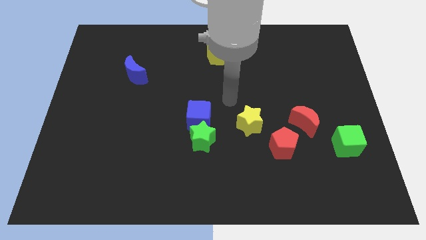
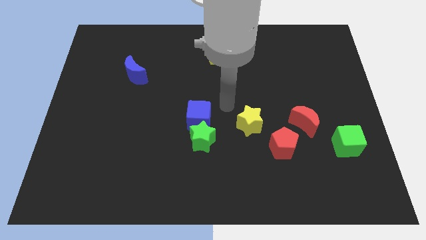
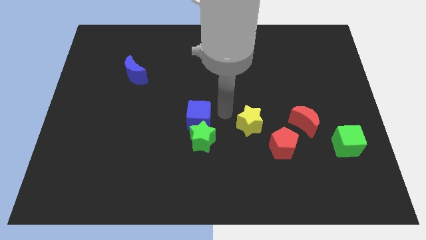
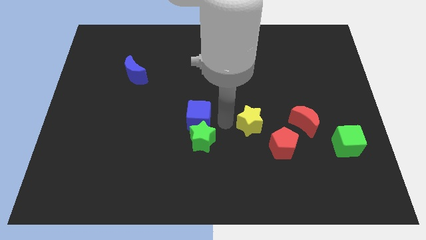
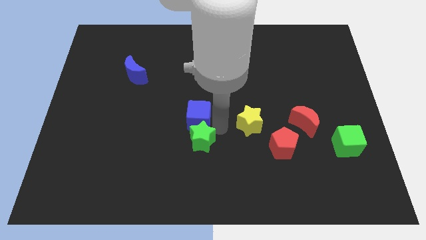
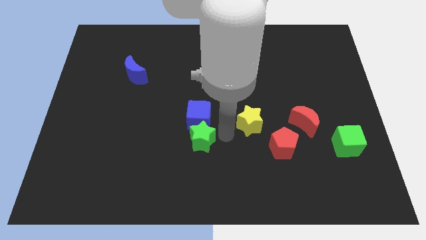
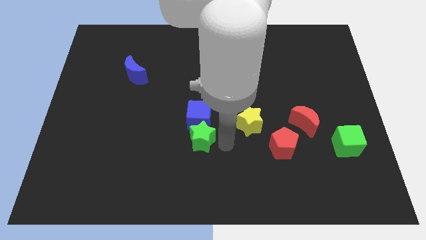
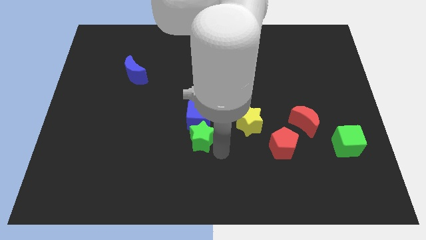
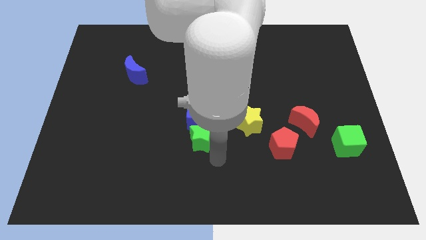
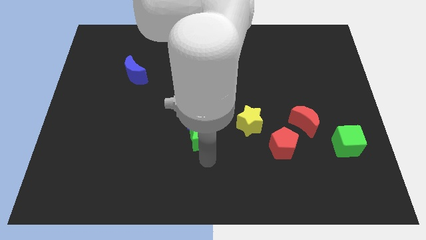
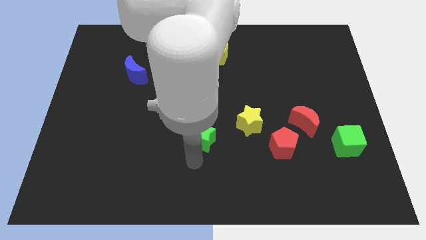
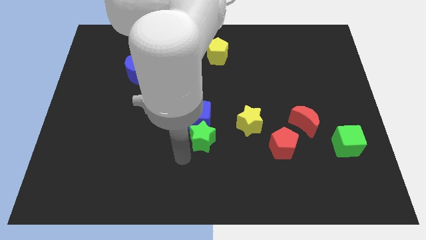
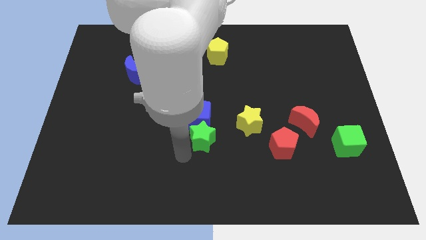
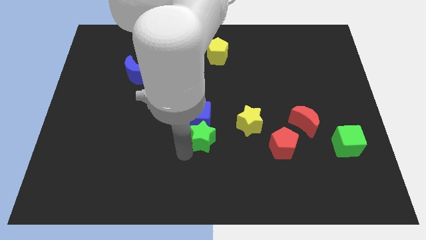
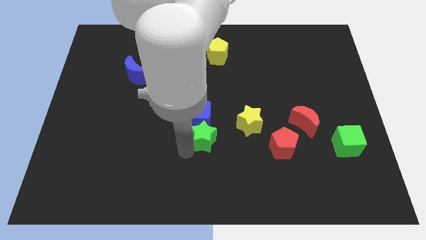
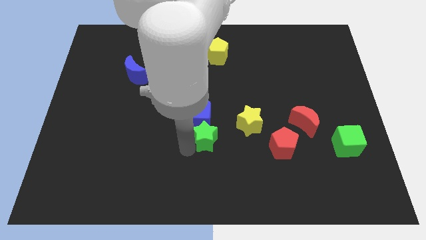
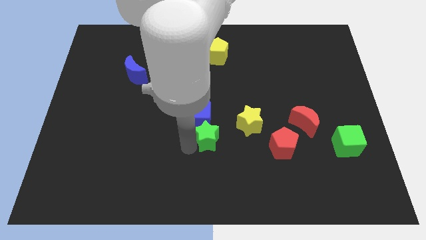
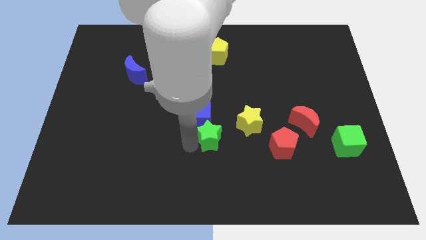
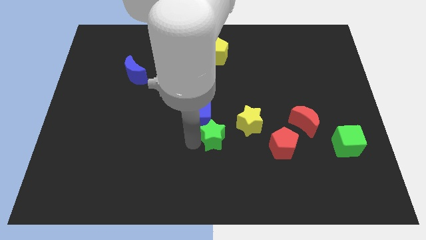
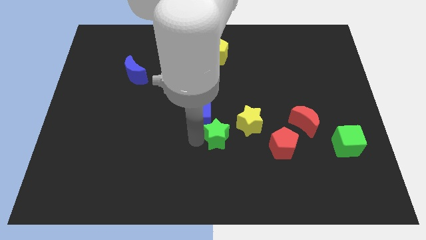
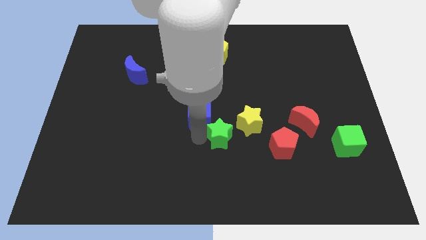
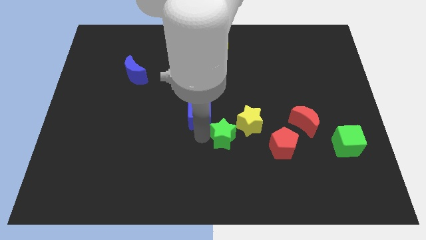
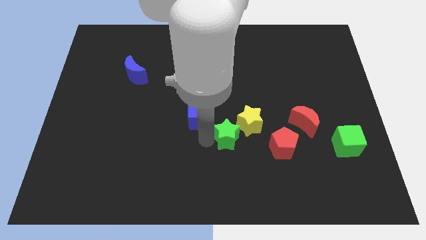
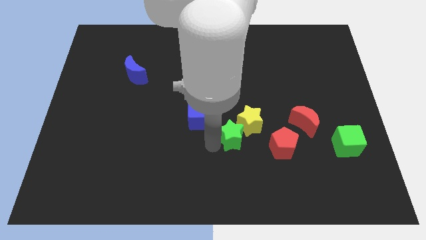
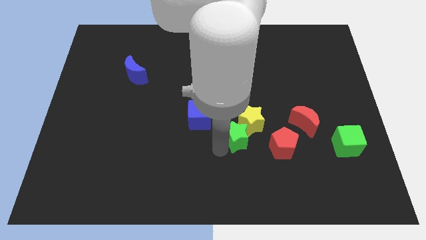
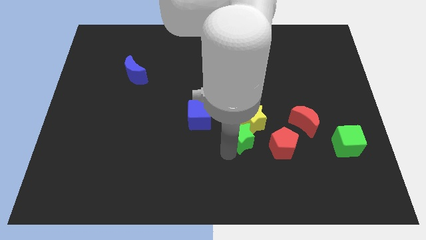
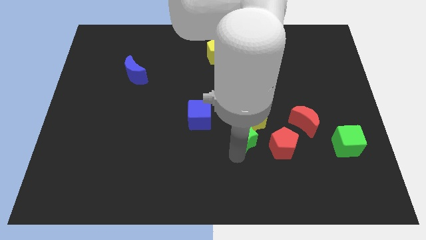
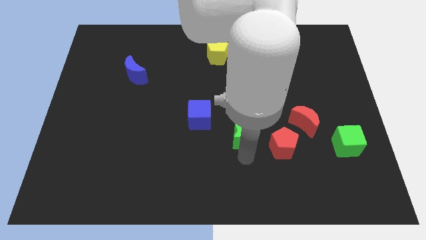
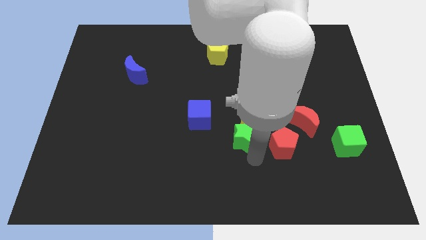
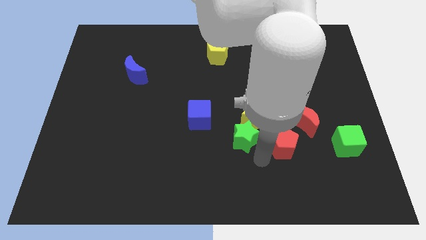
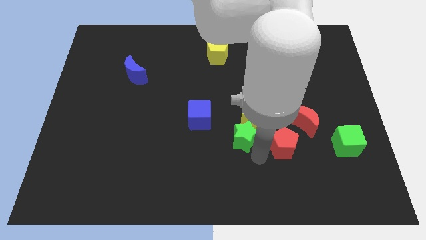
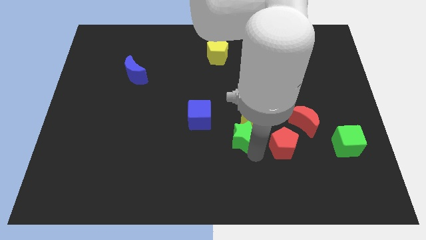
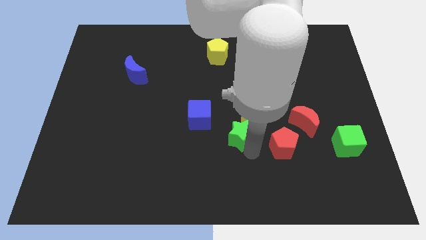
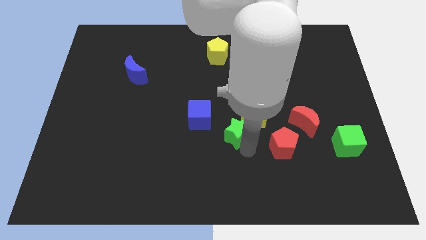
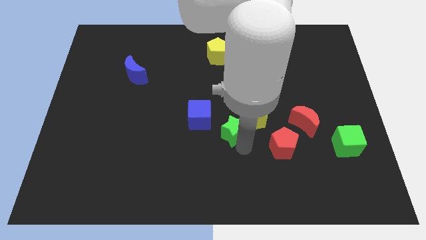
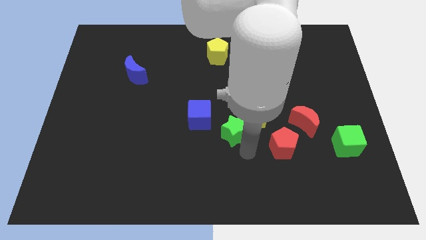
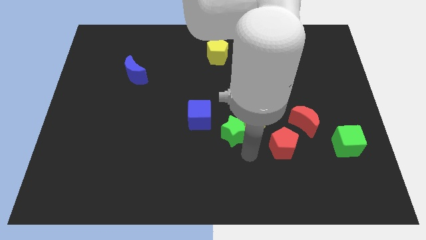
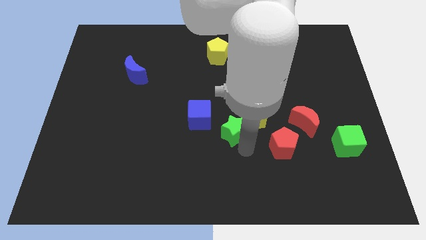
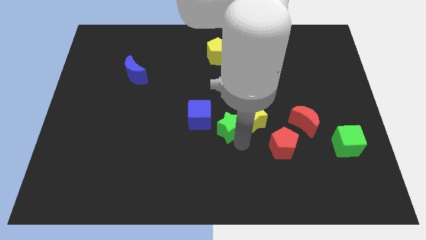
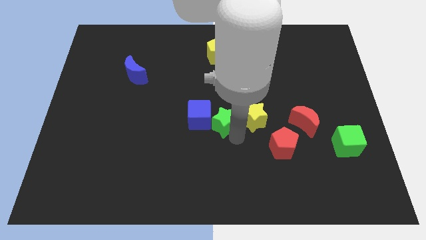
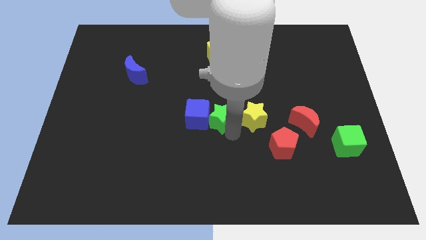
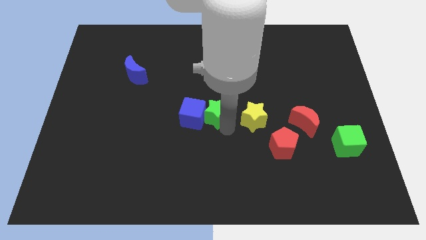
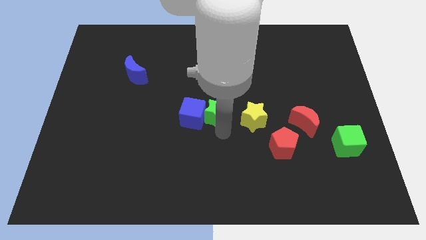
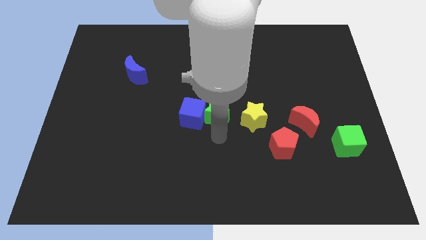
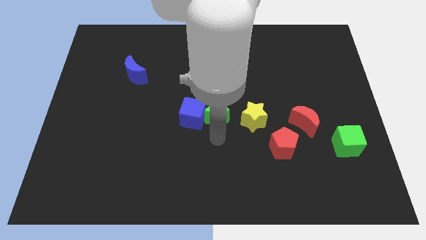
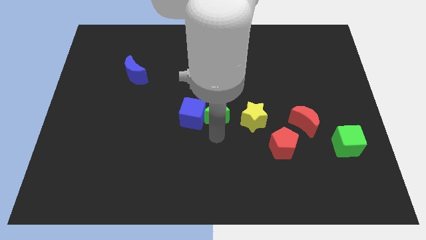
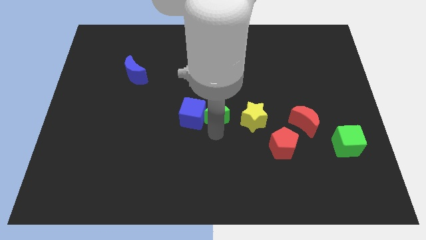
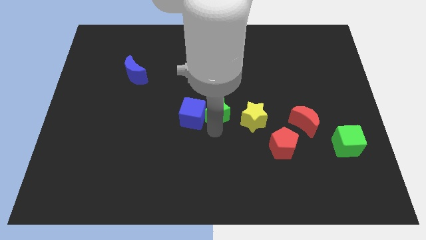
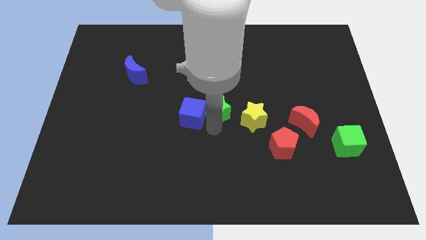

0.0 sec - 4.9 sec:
slide the green star somewhat upwards

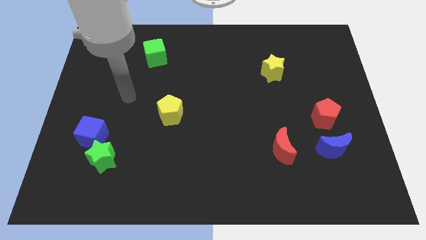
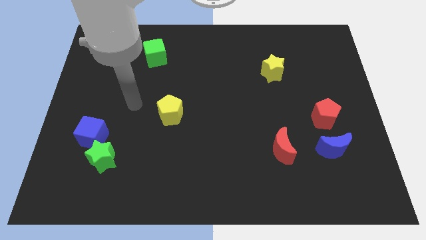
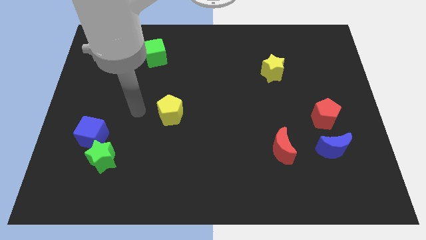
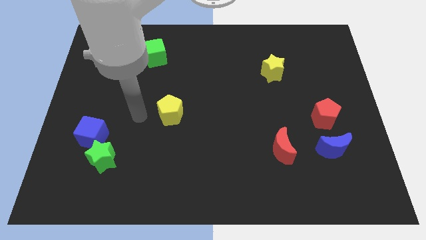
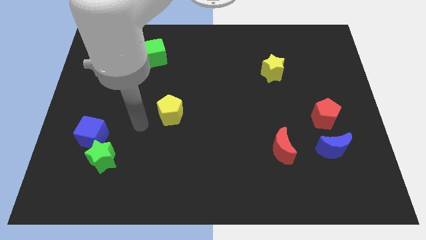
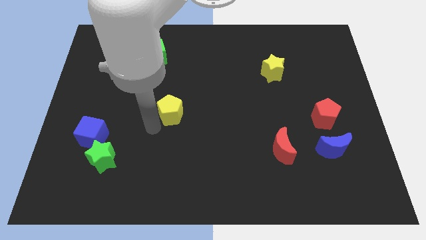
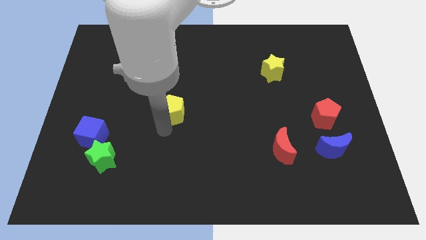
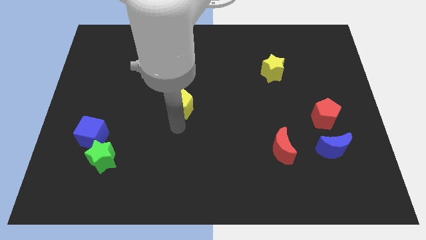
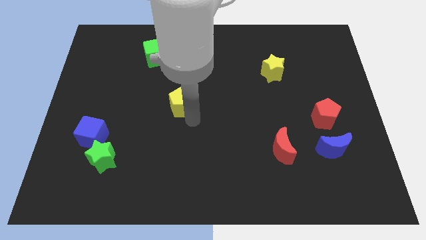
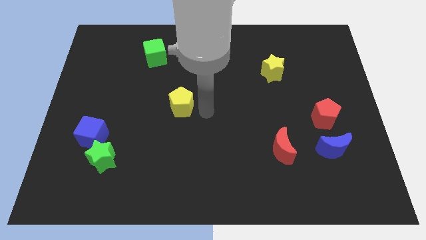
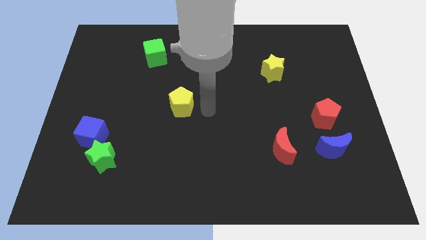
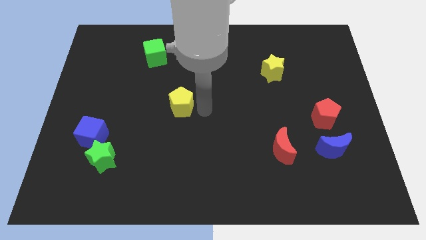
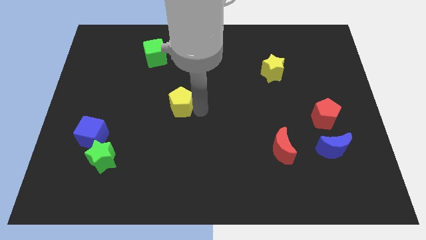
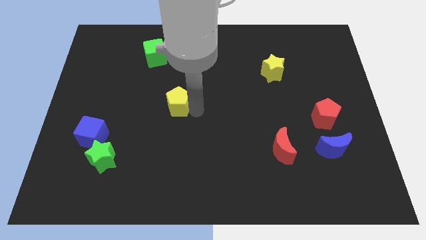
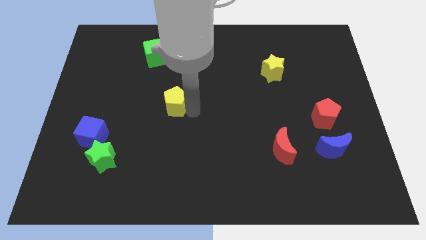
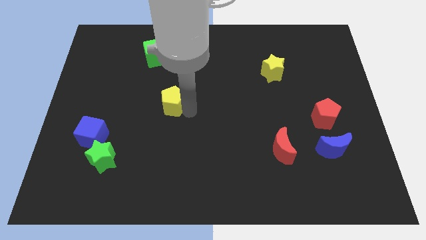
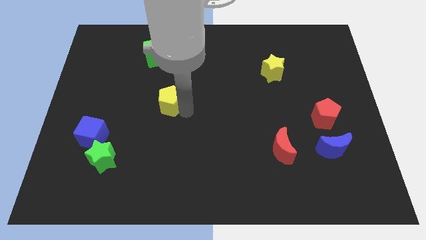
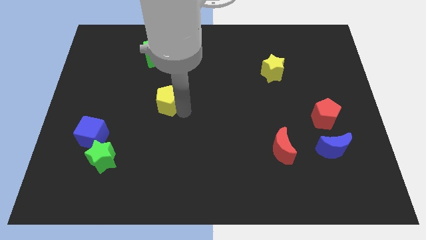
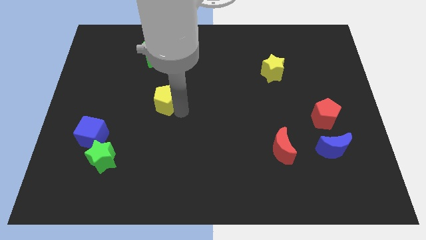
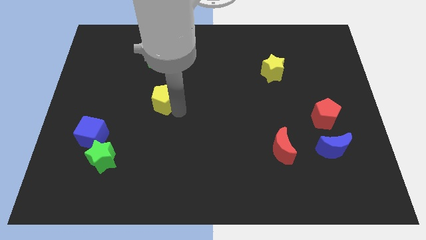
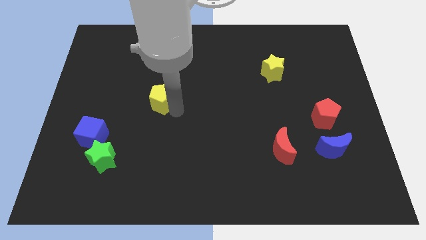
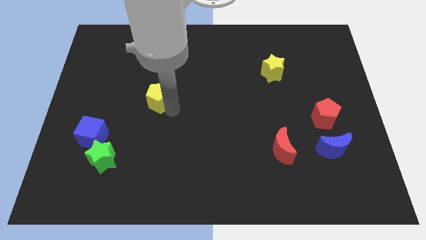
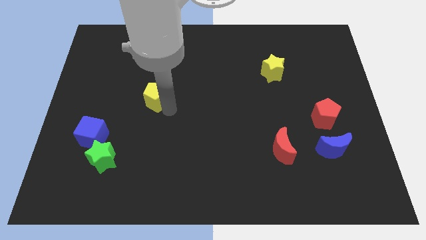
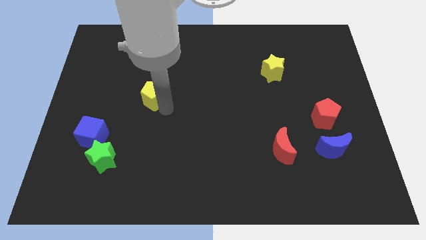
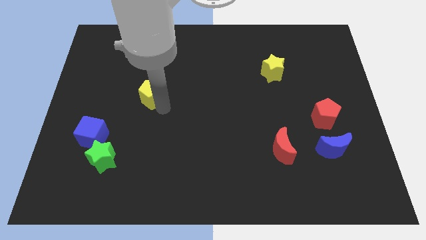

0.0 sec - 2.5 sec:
slightly push the yellow pentagon upwards and left diagonally

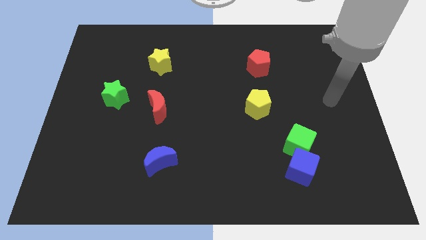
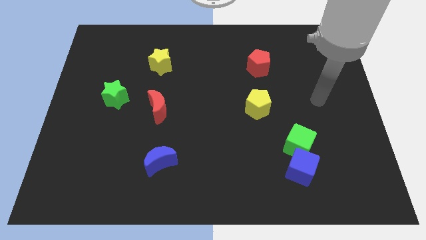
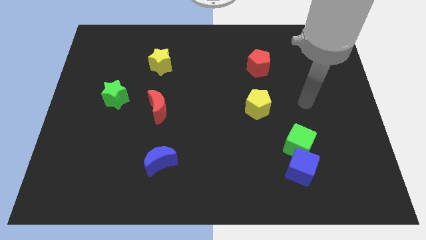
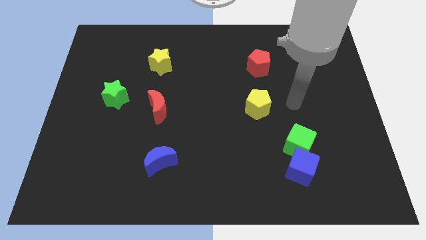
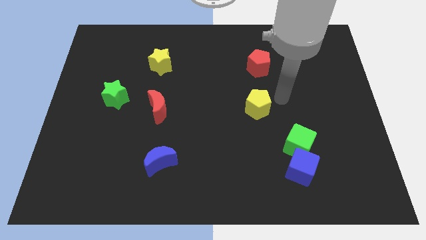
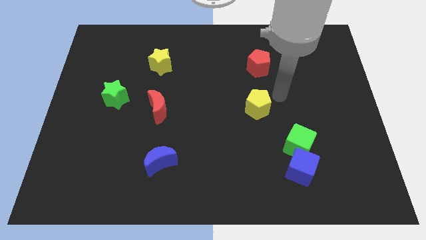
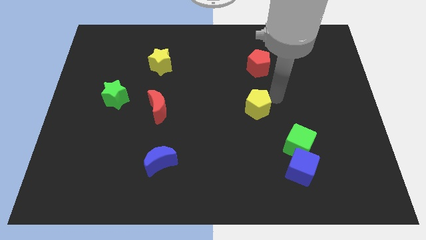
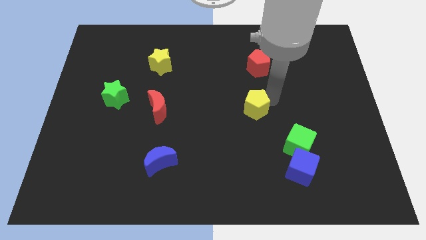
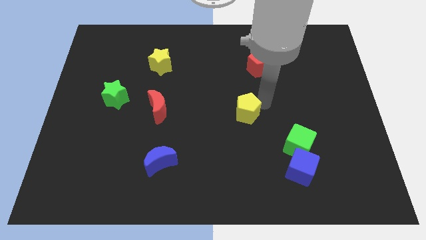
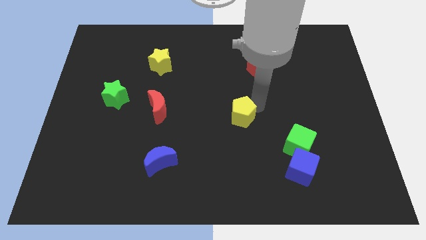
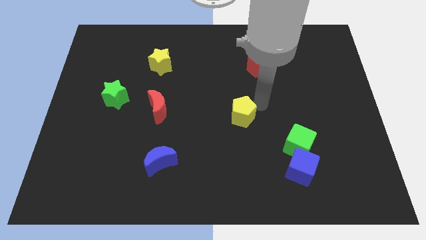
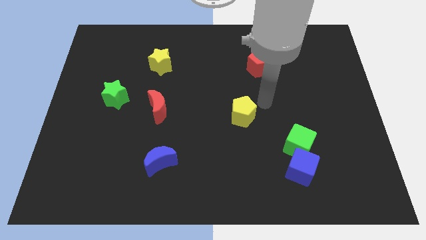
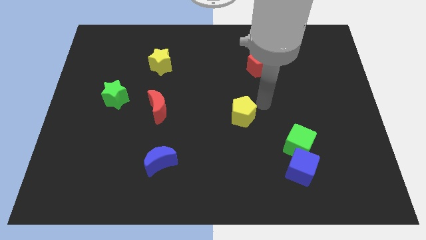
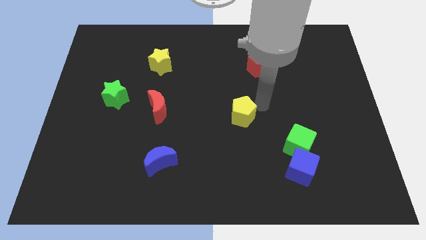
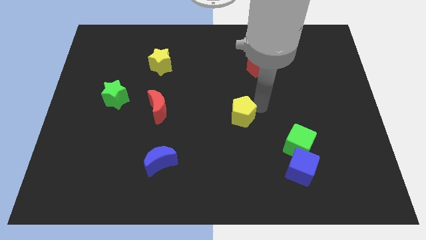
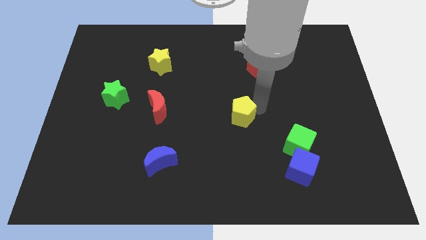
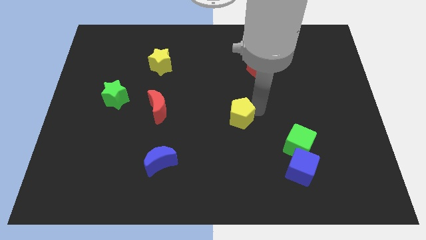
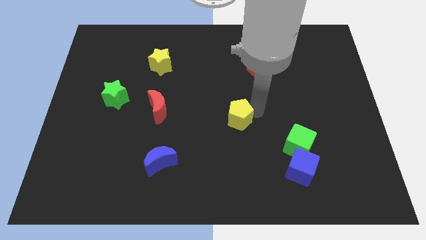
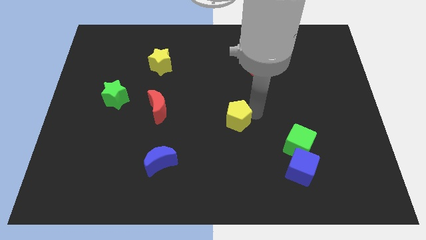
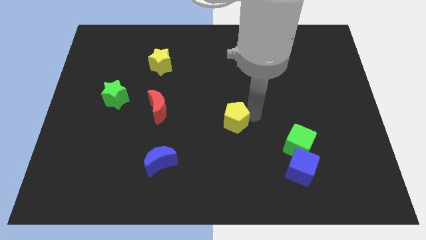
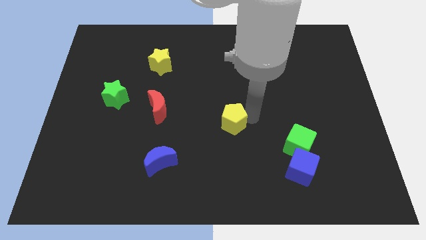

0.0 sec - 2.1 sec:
move the yellow pentagon slightly down and then left
